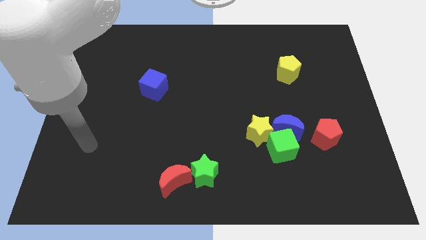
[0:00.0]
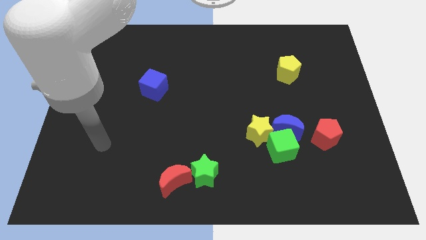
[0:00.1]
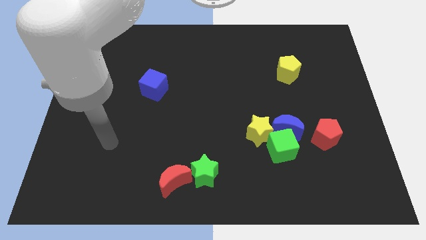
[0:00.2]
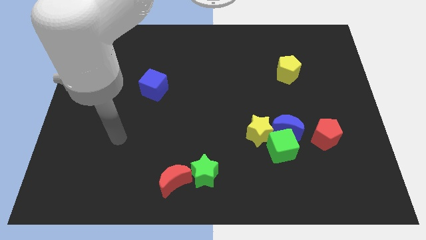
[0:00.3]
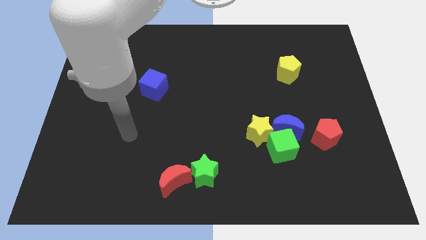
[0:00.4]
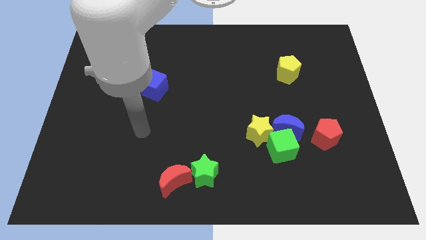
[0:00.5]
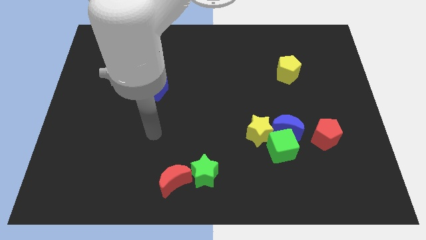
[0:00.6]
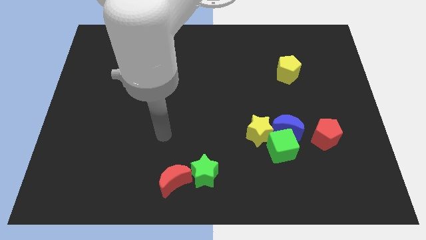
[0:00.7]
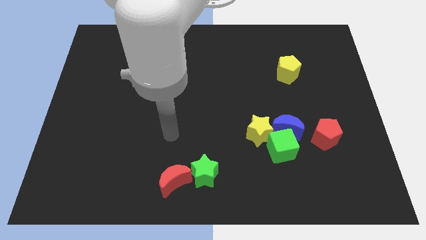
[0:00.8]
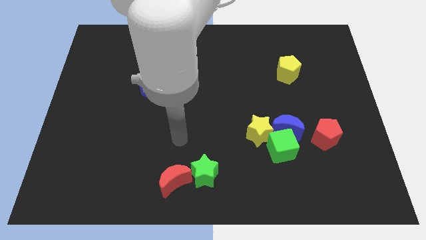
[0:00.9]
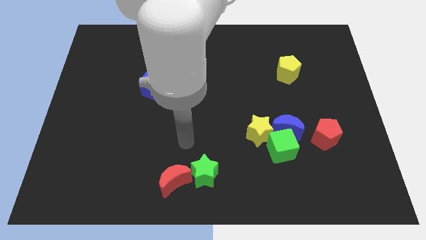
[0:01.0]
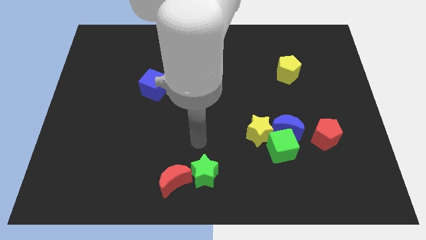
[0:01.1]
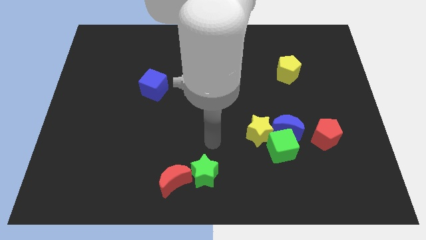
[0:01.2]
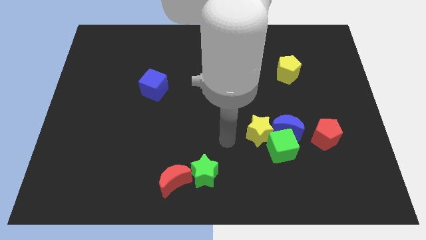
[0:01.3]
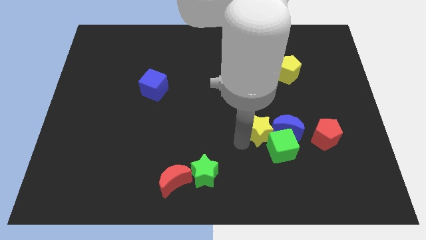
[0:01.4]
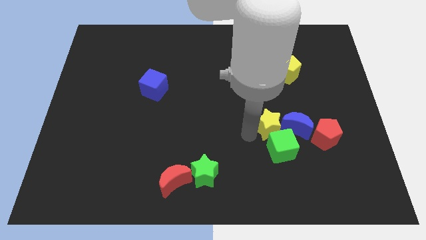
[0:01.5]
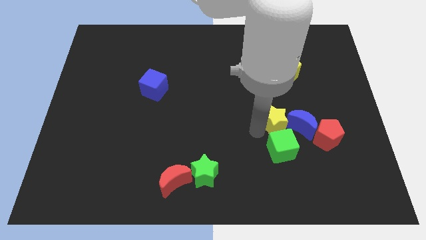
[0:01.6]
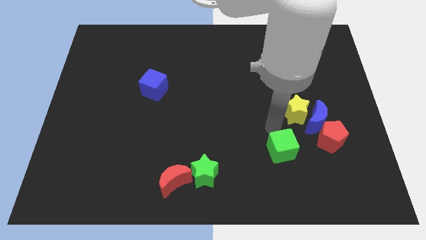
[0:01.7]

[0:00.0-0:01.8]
separate the green cube from the blue moon and yellow star

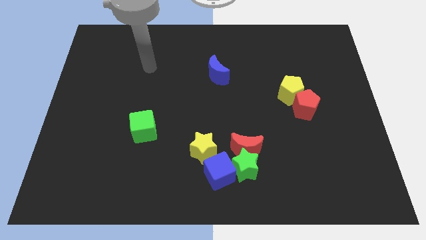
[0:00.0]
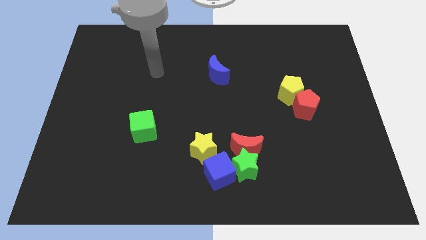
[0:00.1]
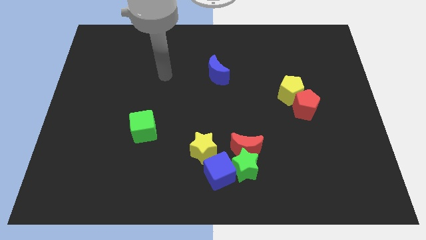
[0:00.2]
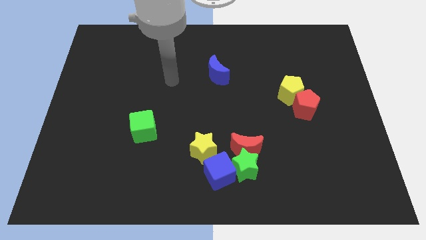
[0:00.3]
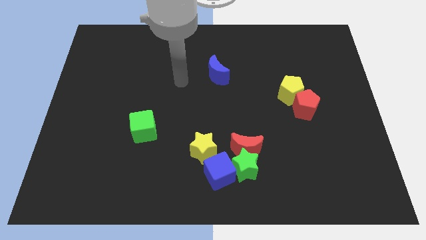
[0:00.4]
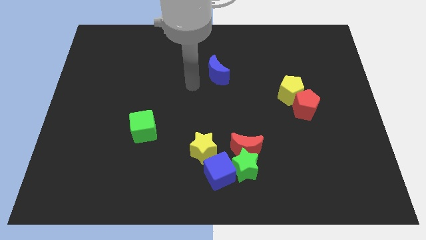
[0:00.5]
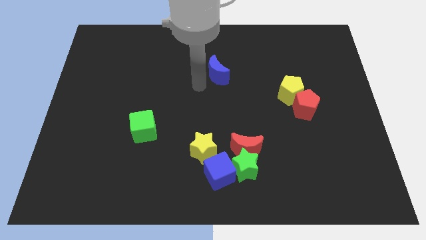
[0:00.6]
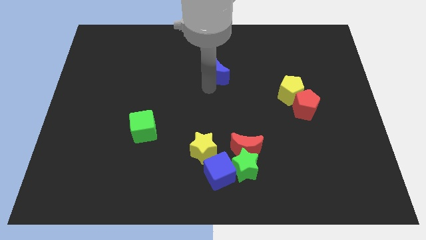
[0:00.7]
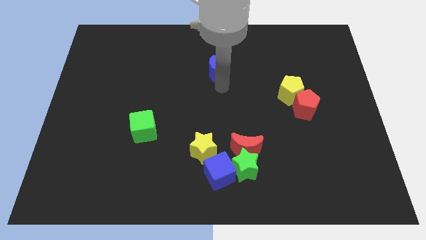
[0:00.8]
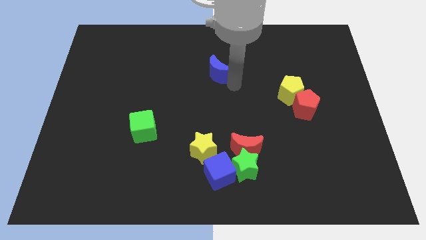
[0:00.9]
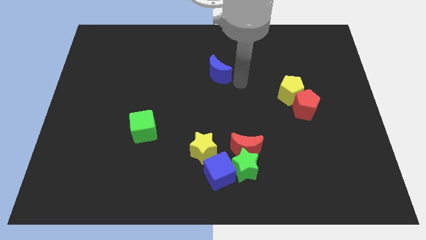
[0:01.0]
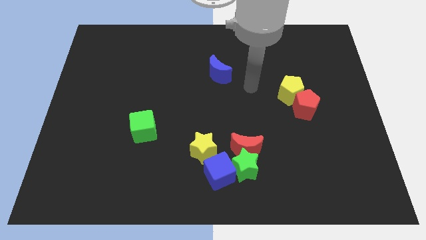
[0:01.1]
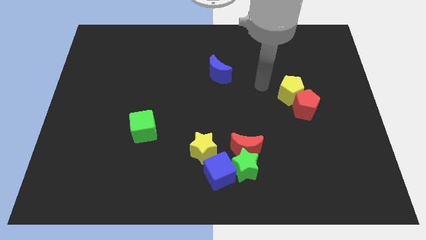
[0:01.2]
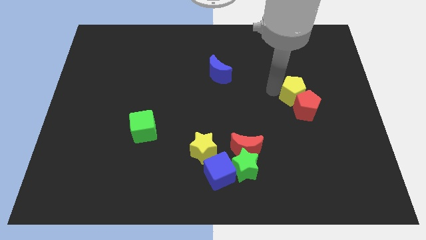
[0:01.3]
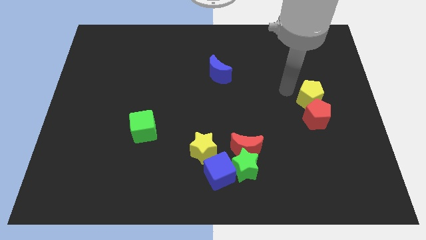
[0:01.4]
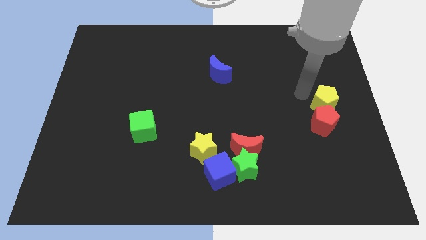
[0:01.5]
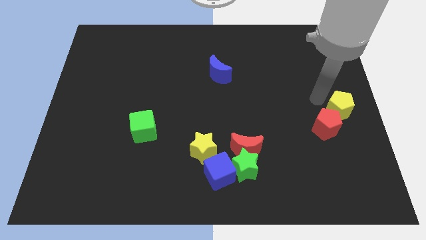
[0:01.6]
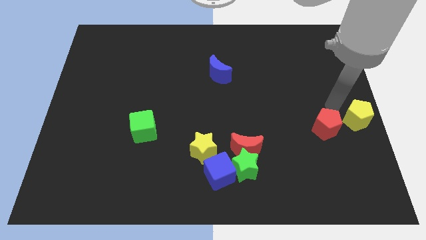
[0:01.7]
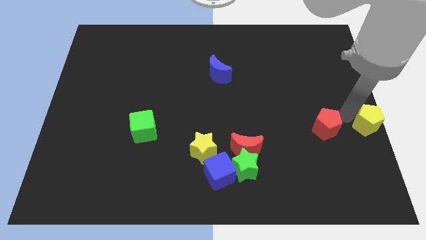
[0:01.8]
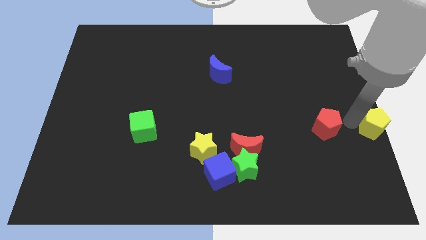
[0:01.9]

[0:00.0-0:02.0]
pull the red pentagon apart from the yellow pentagon

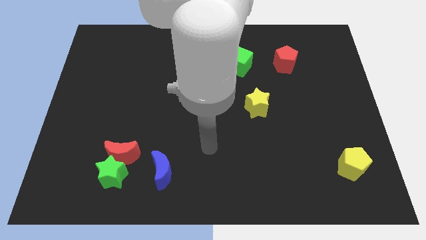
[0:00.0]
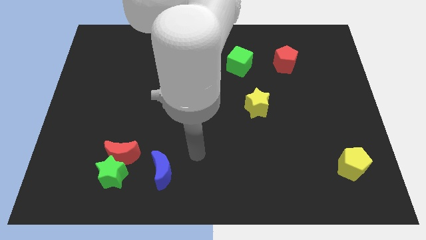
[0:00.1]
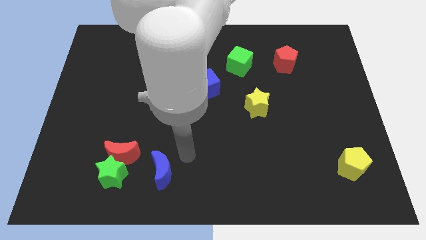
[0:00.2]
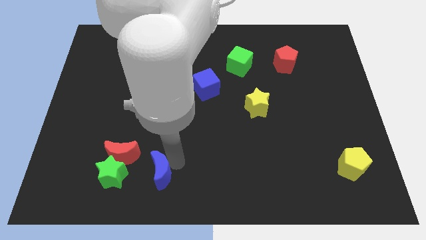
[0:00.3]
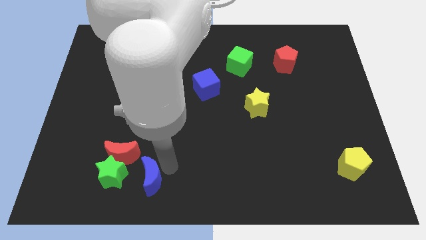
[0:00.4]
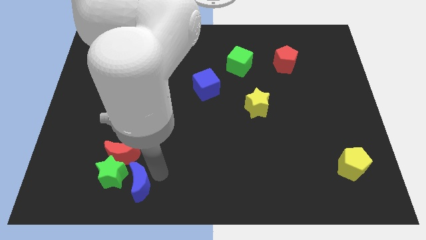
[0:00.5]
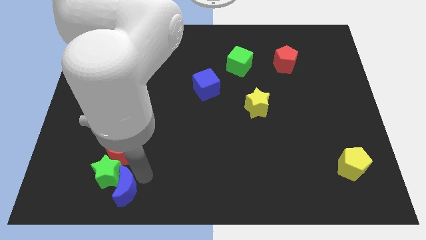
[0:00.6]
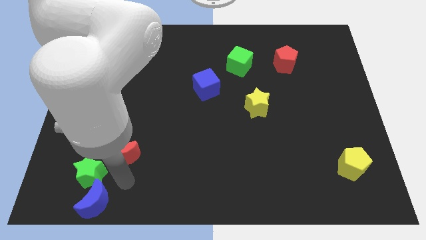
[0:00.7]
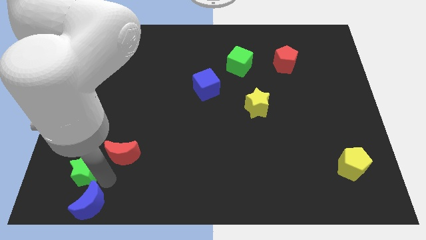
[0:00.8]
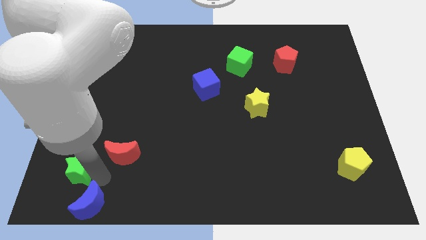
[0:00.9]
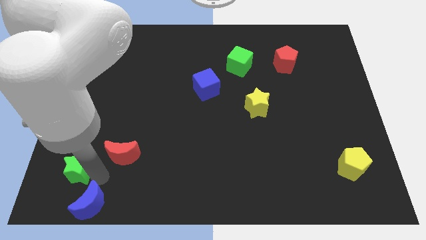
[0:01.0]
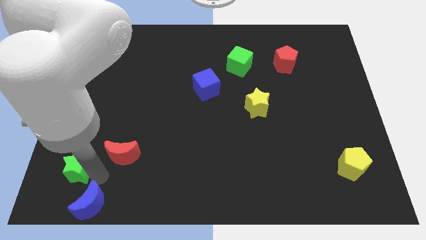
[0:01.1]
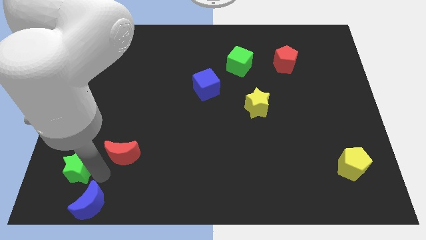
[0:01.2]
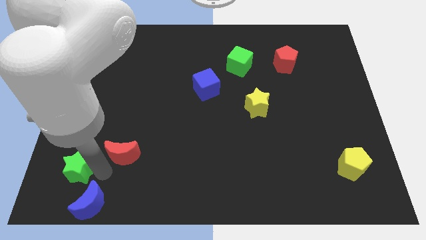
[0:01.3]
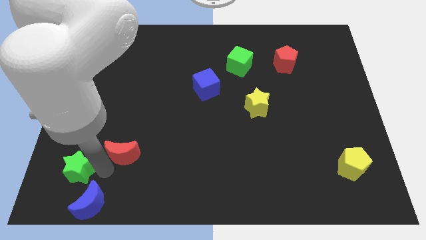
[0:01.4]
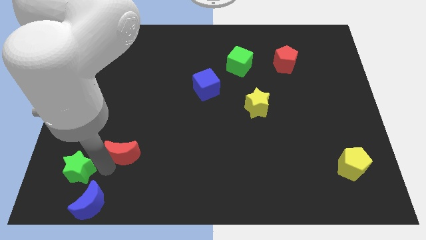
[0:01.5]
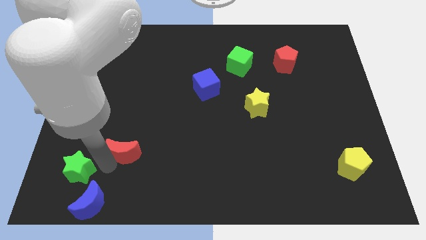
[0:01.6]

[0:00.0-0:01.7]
move the red moon away from the green star and blue moon

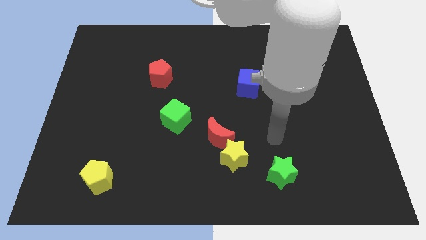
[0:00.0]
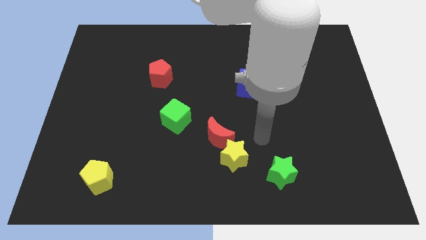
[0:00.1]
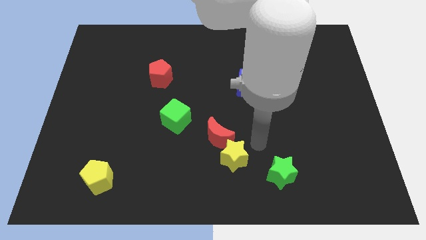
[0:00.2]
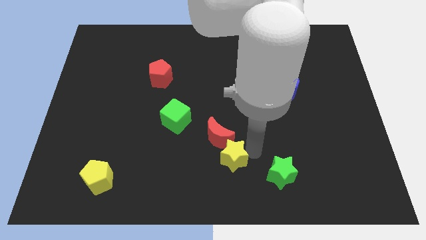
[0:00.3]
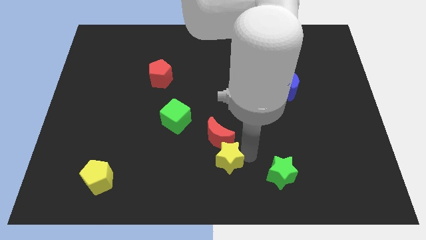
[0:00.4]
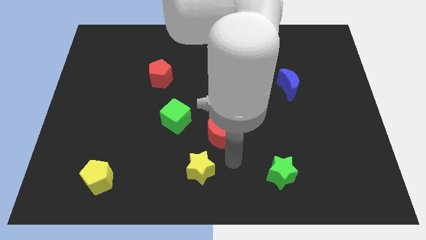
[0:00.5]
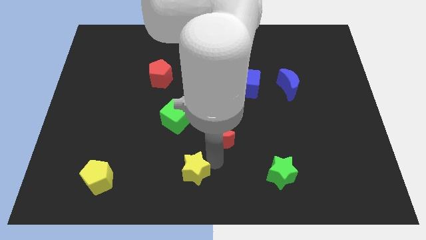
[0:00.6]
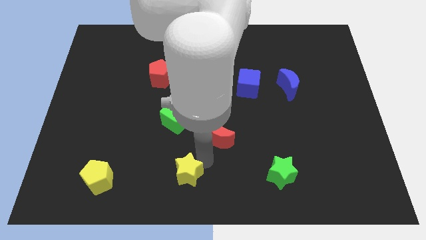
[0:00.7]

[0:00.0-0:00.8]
pull the red moon apart from the yellow star

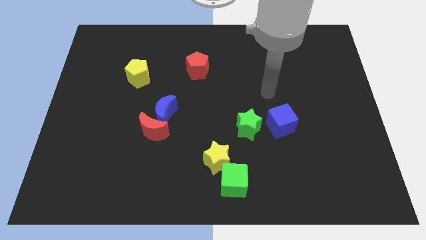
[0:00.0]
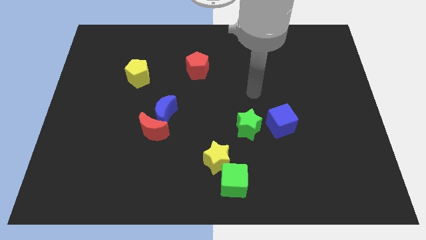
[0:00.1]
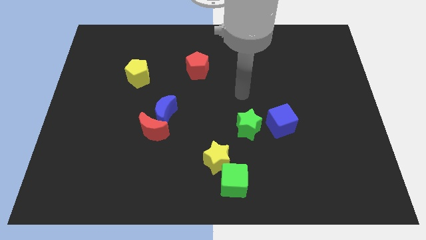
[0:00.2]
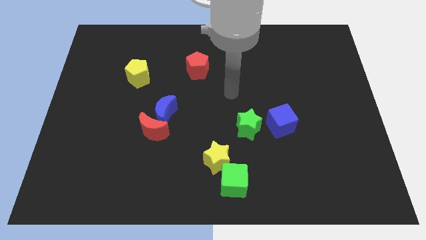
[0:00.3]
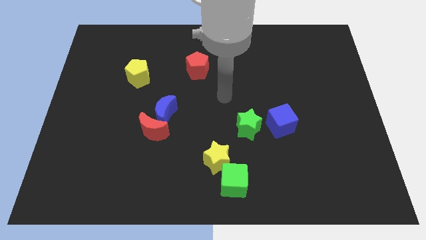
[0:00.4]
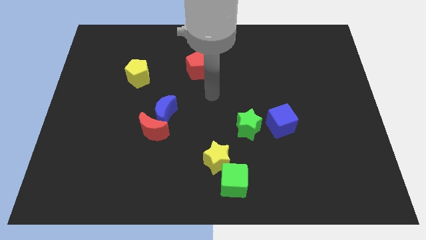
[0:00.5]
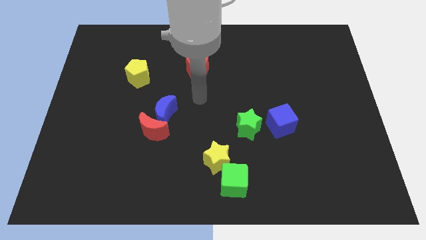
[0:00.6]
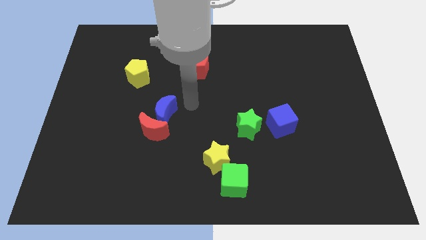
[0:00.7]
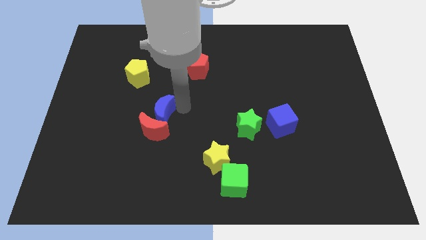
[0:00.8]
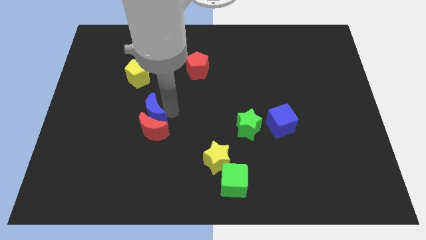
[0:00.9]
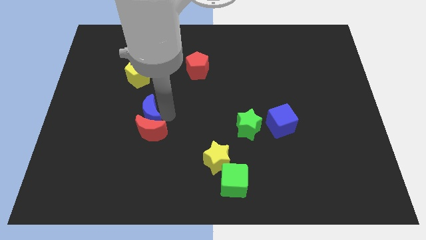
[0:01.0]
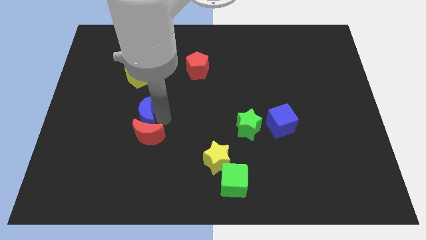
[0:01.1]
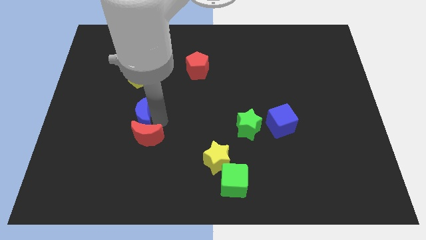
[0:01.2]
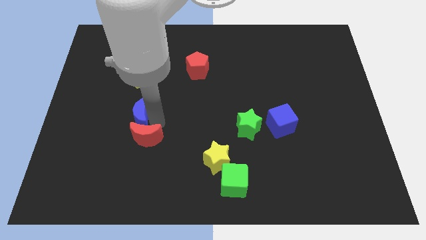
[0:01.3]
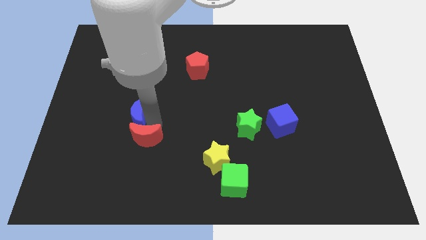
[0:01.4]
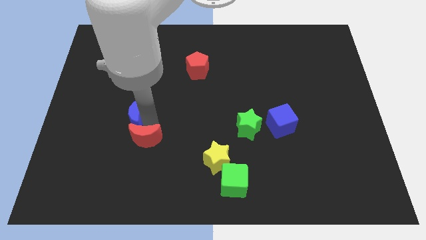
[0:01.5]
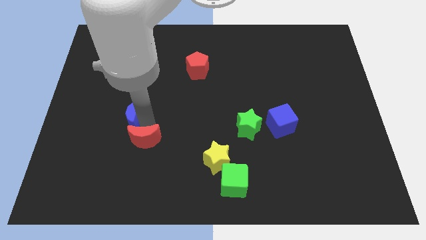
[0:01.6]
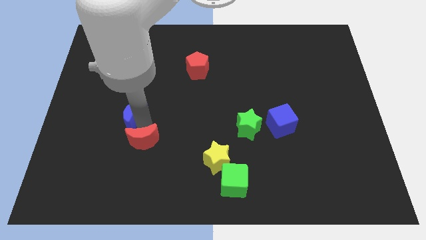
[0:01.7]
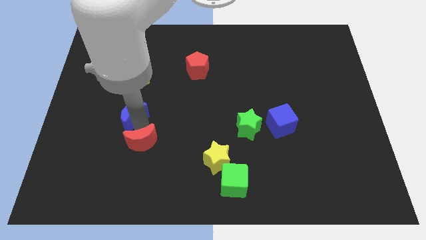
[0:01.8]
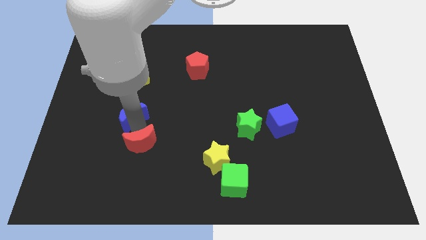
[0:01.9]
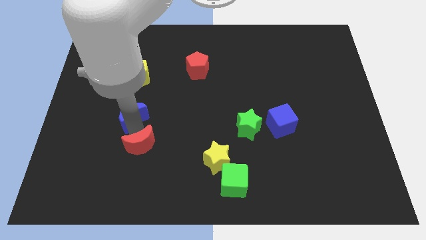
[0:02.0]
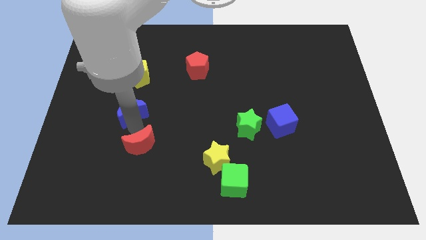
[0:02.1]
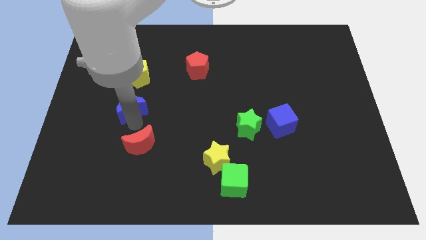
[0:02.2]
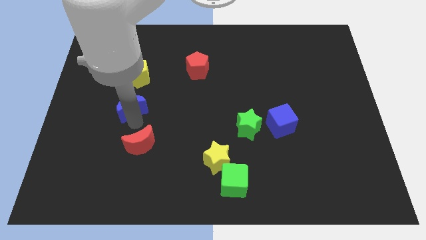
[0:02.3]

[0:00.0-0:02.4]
pull the red moon apart from the blue moon

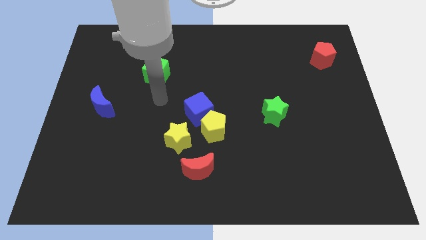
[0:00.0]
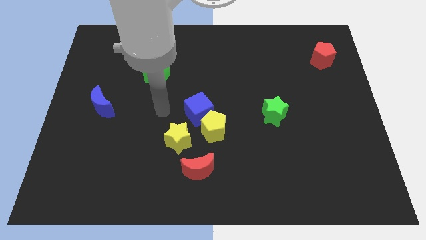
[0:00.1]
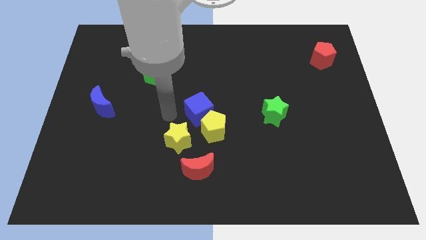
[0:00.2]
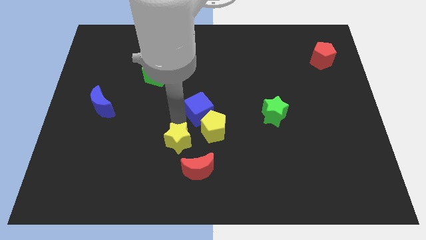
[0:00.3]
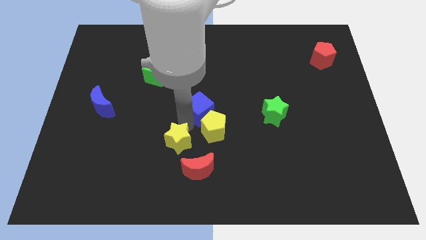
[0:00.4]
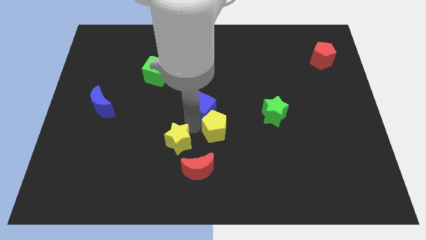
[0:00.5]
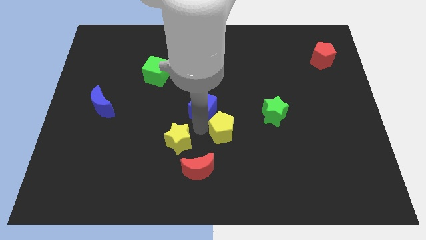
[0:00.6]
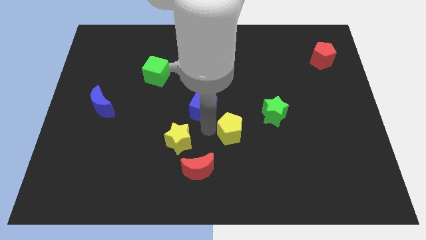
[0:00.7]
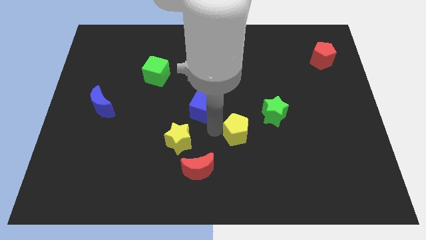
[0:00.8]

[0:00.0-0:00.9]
pull the yellow pentagon apart from the blue cube and yellow star
